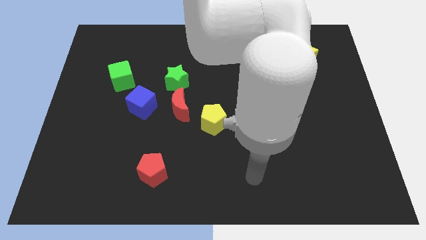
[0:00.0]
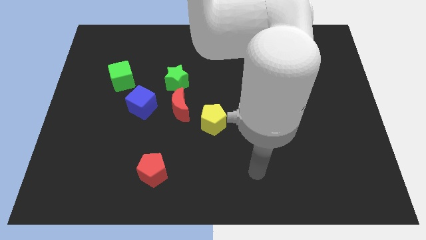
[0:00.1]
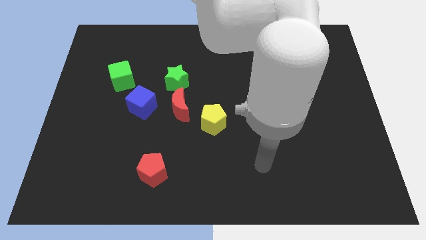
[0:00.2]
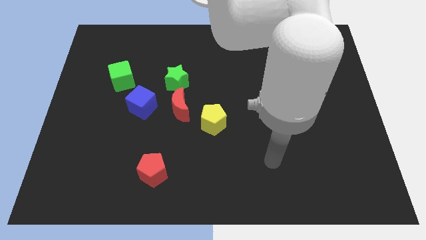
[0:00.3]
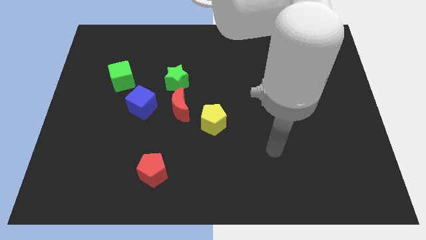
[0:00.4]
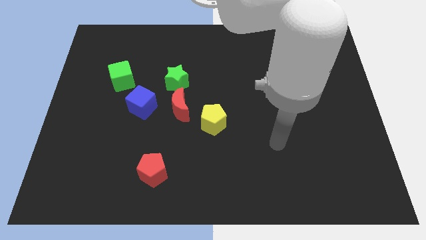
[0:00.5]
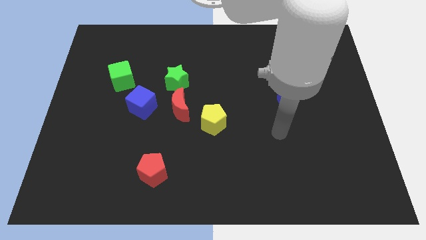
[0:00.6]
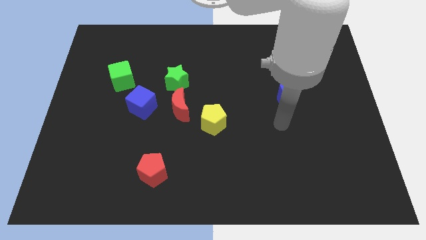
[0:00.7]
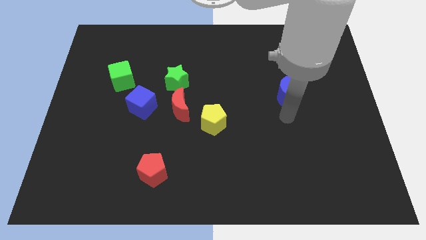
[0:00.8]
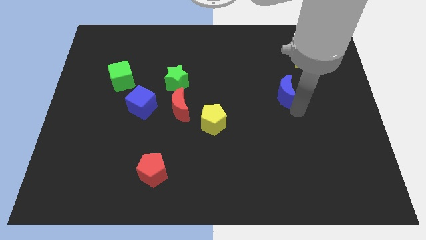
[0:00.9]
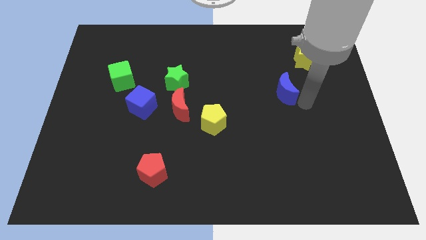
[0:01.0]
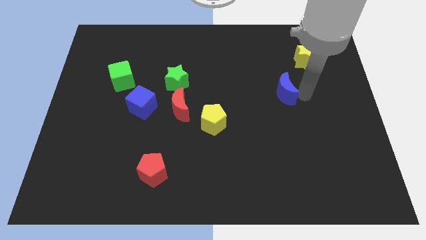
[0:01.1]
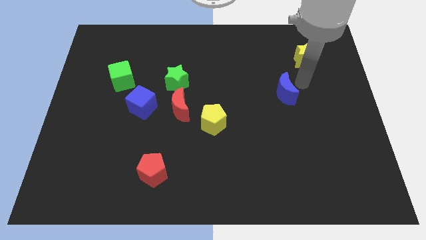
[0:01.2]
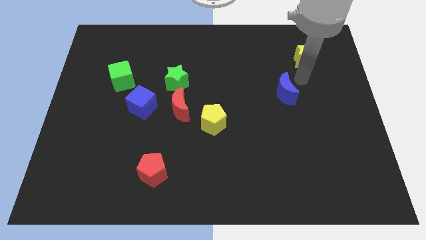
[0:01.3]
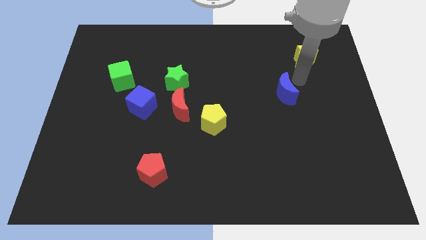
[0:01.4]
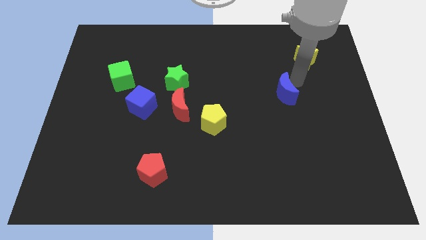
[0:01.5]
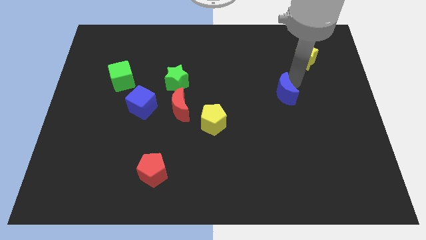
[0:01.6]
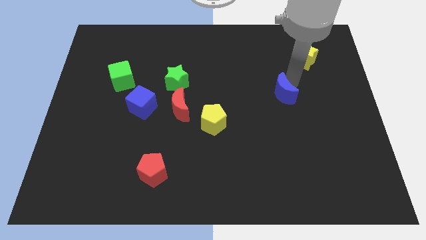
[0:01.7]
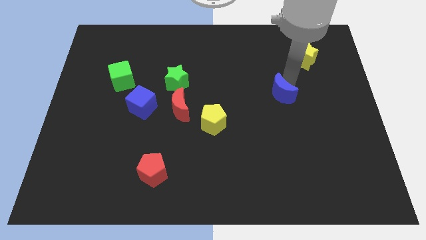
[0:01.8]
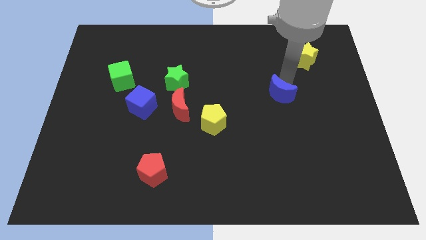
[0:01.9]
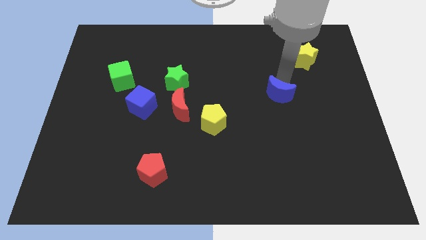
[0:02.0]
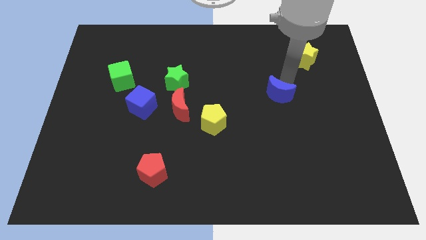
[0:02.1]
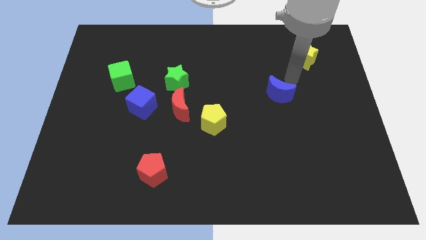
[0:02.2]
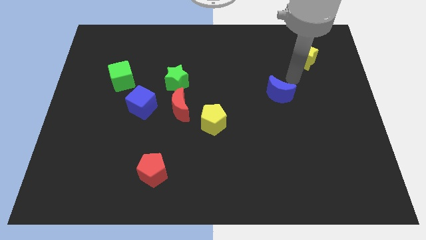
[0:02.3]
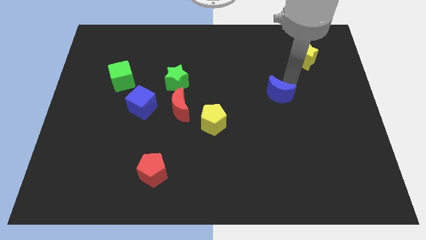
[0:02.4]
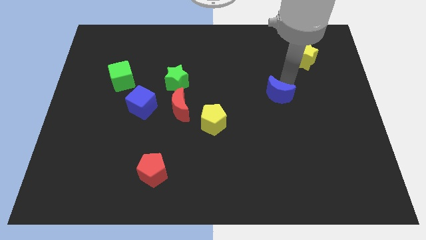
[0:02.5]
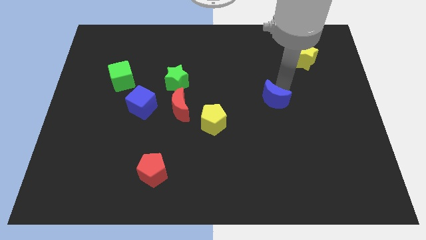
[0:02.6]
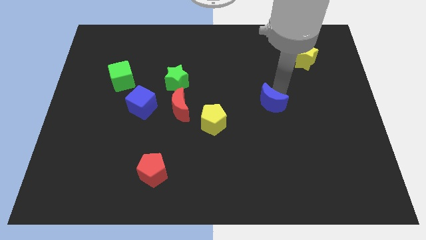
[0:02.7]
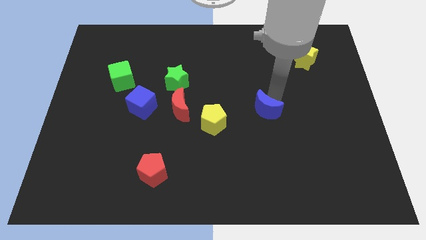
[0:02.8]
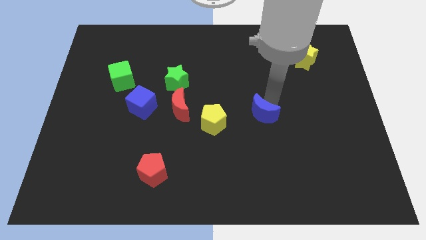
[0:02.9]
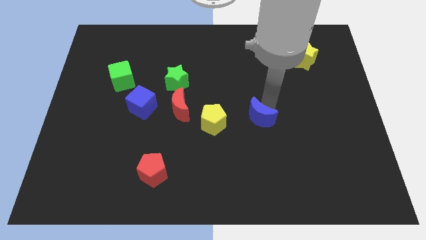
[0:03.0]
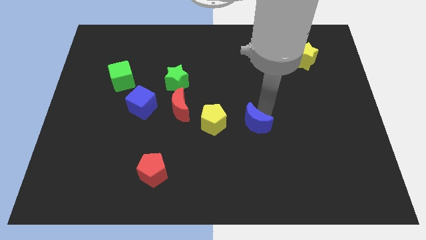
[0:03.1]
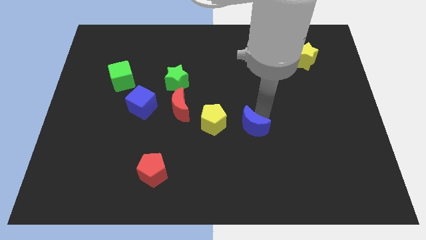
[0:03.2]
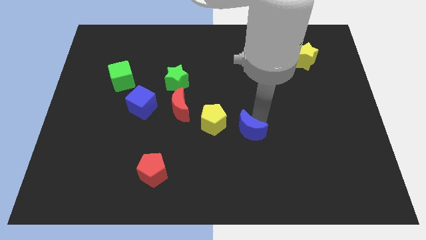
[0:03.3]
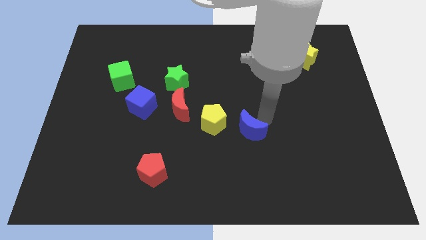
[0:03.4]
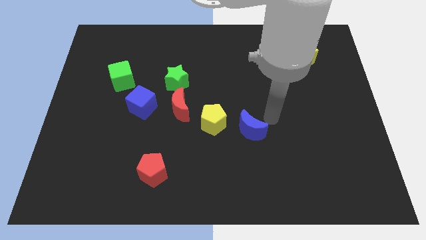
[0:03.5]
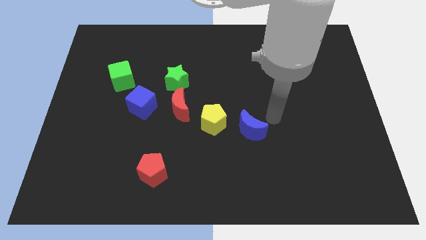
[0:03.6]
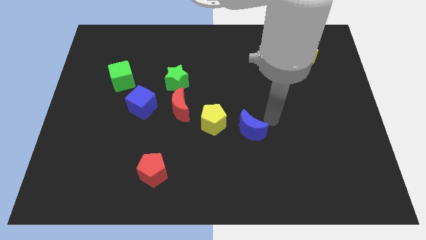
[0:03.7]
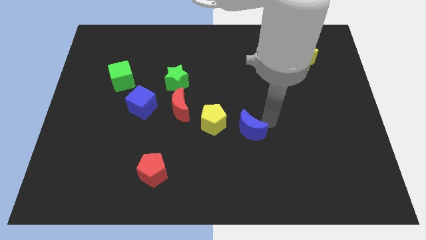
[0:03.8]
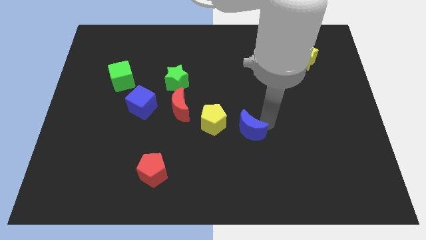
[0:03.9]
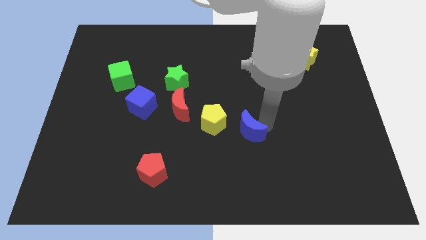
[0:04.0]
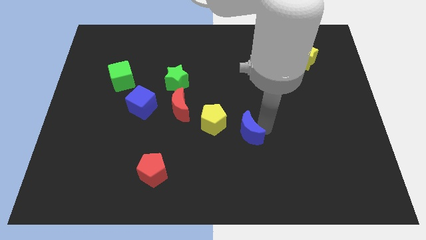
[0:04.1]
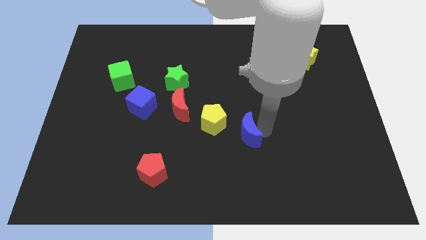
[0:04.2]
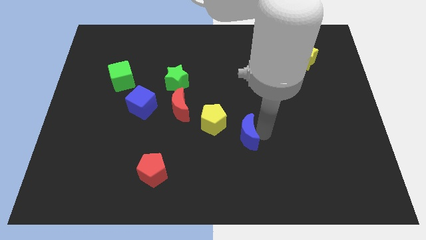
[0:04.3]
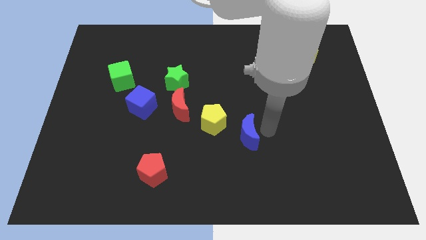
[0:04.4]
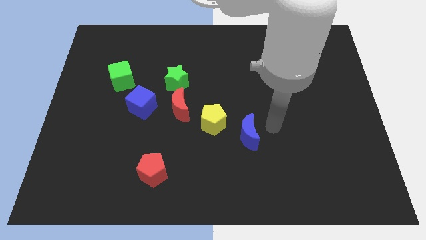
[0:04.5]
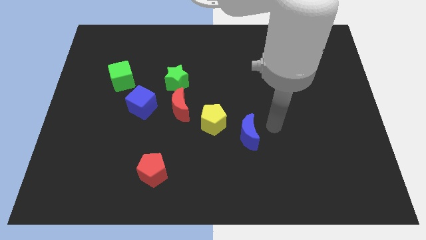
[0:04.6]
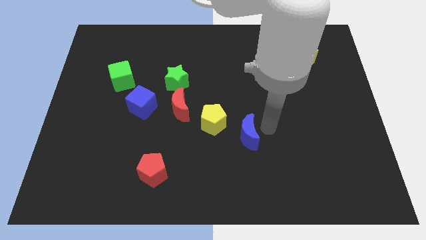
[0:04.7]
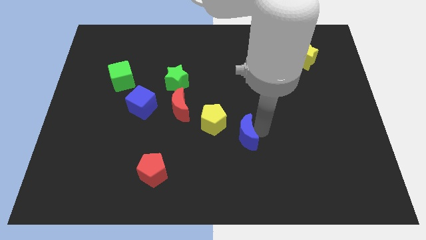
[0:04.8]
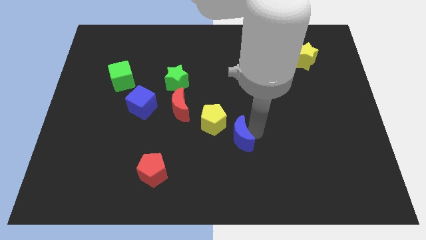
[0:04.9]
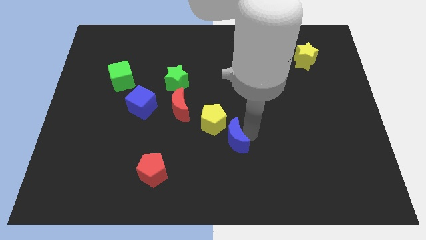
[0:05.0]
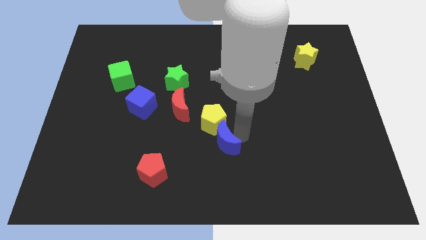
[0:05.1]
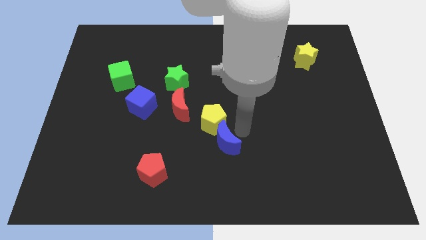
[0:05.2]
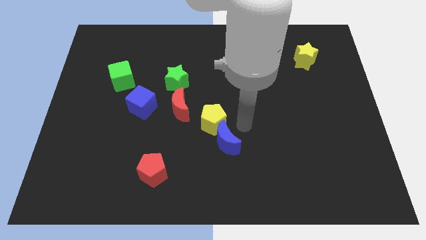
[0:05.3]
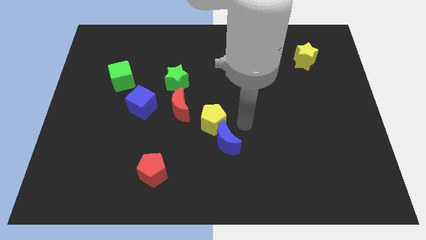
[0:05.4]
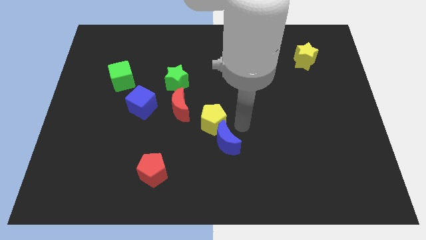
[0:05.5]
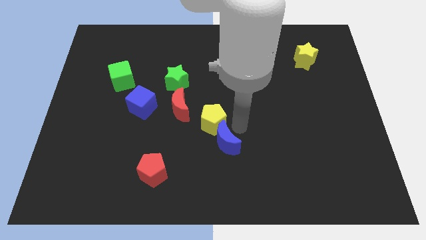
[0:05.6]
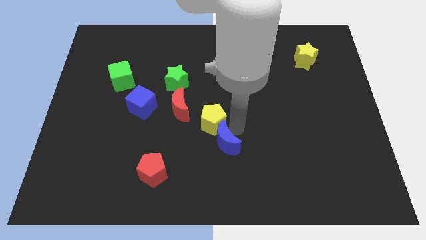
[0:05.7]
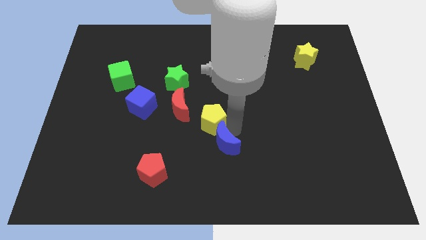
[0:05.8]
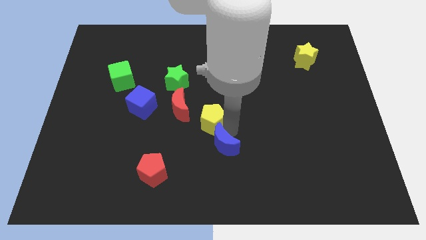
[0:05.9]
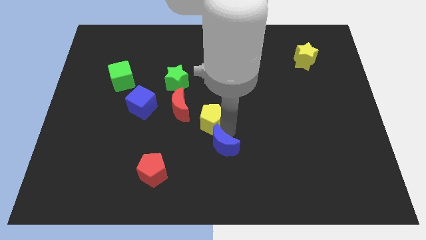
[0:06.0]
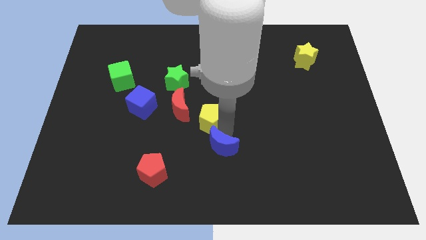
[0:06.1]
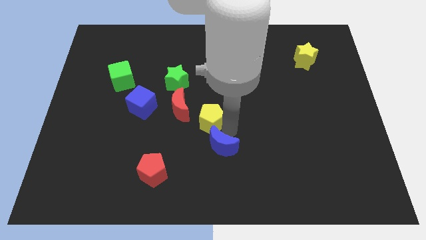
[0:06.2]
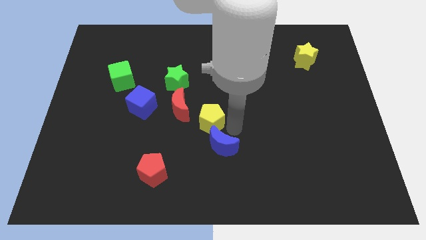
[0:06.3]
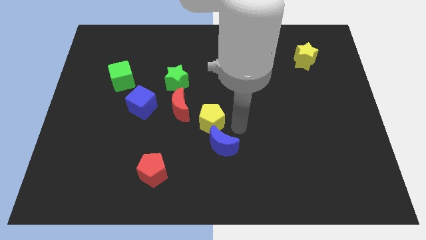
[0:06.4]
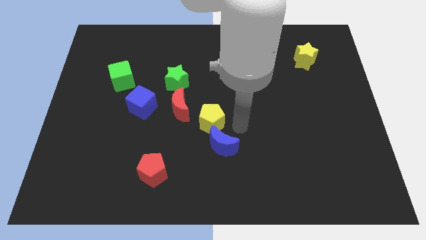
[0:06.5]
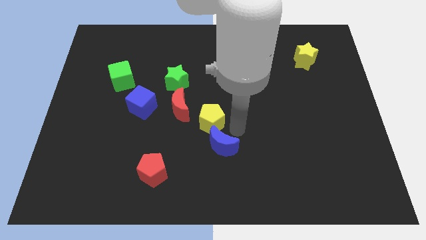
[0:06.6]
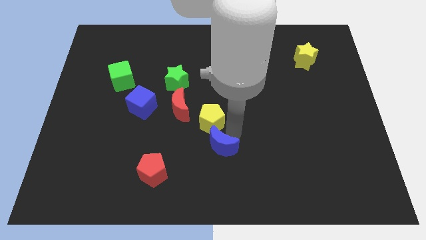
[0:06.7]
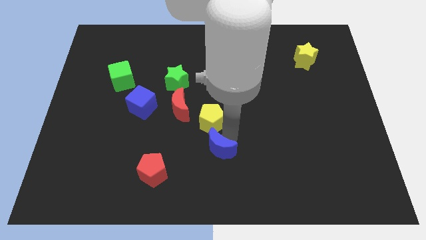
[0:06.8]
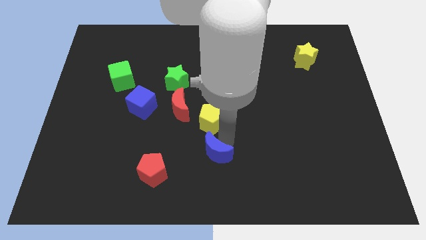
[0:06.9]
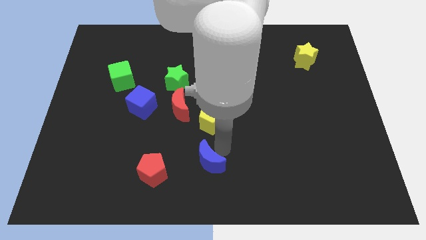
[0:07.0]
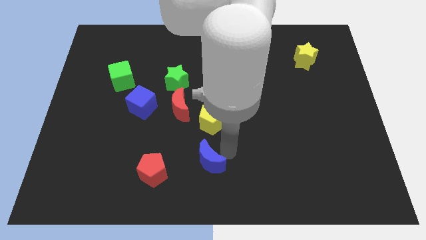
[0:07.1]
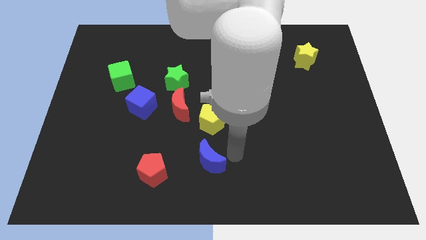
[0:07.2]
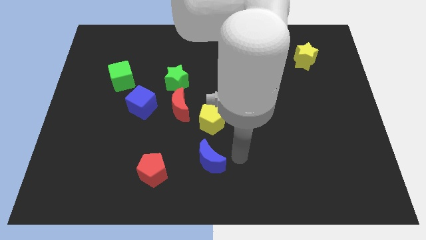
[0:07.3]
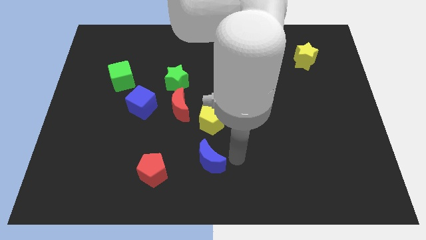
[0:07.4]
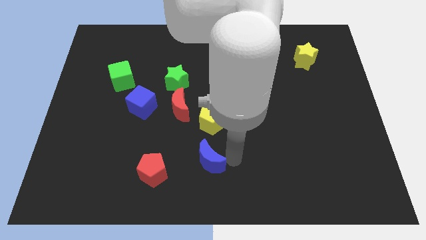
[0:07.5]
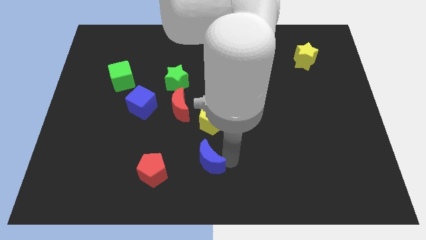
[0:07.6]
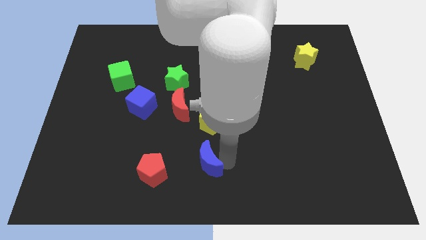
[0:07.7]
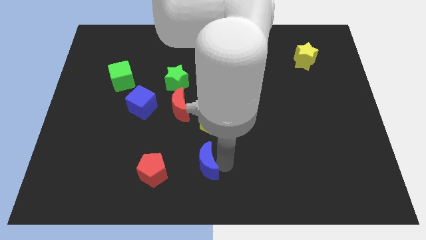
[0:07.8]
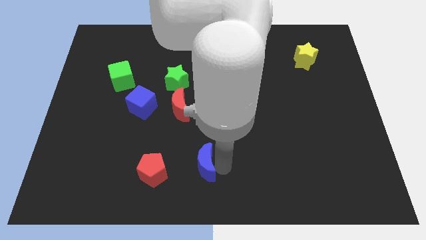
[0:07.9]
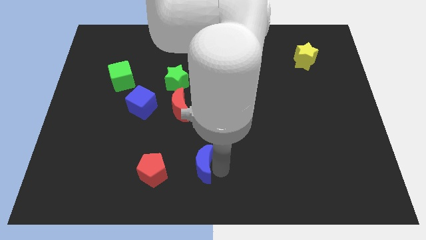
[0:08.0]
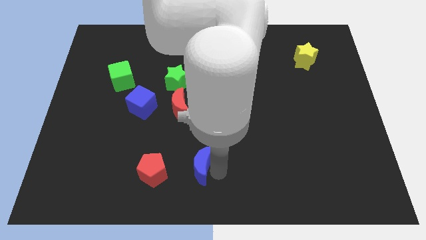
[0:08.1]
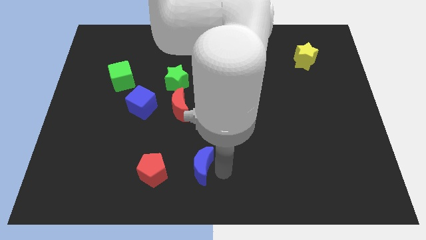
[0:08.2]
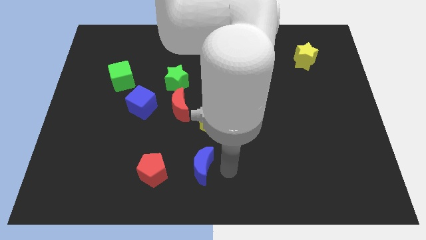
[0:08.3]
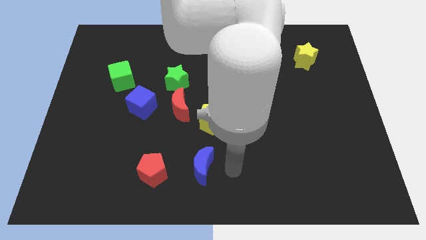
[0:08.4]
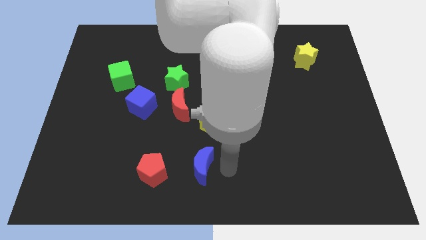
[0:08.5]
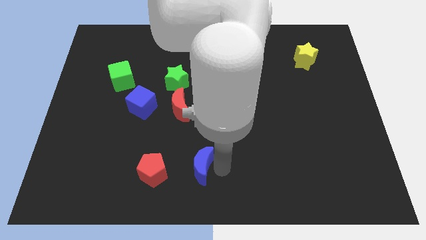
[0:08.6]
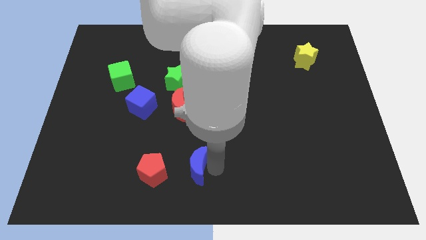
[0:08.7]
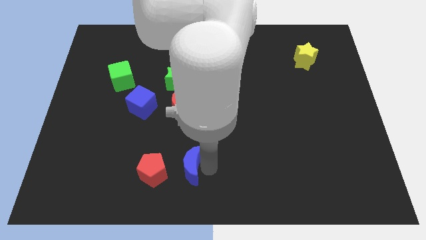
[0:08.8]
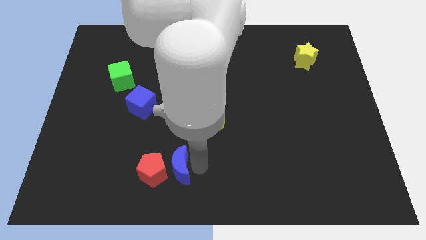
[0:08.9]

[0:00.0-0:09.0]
slide the blue moon close to the red pentagon
